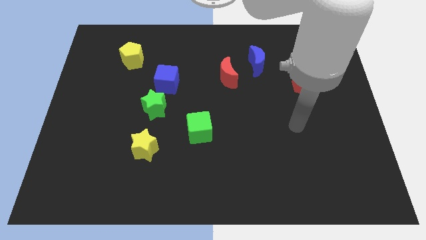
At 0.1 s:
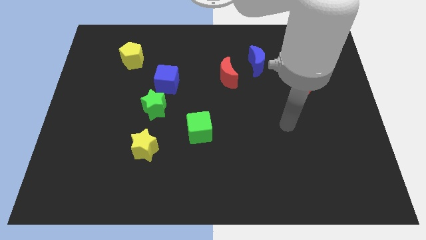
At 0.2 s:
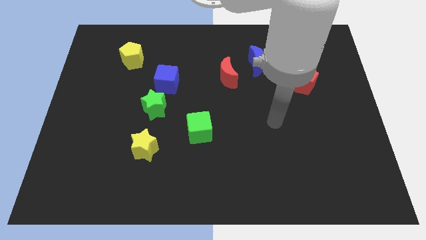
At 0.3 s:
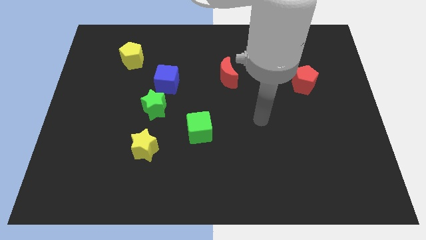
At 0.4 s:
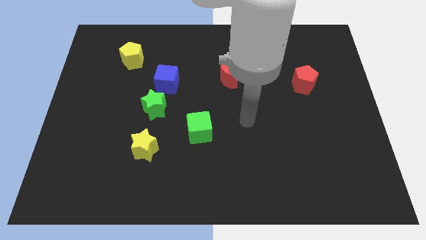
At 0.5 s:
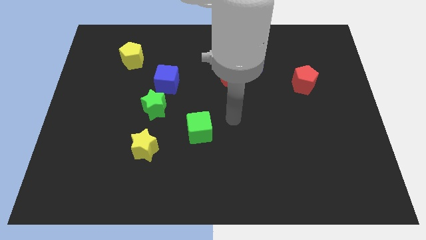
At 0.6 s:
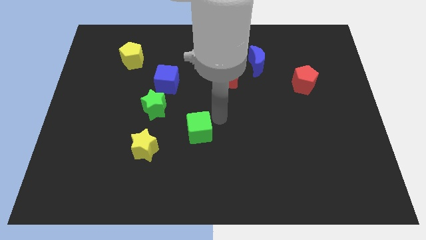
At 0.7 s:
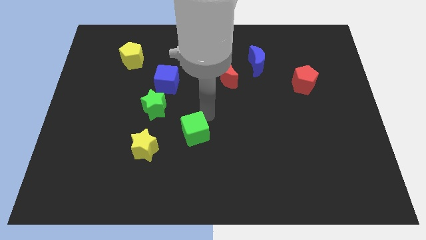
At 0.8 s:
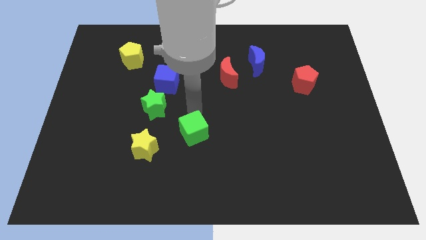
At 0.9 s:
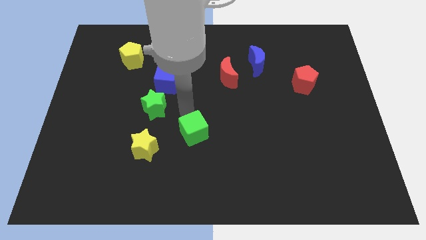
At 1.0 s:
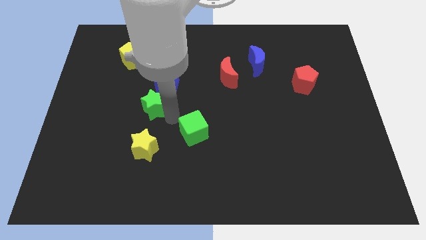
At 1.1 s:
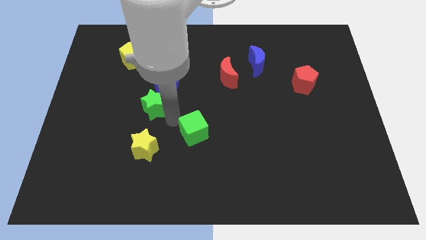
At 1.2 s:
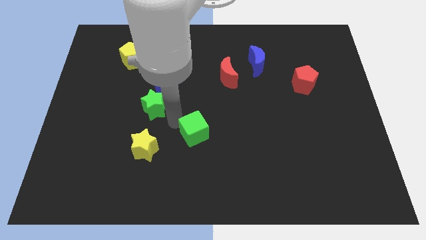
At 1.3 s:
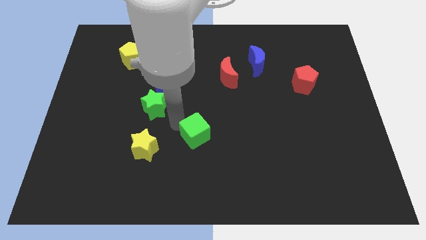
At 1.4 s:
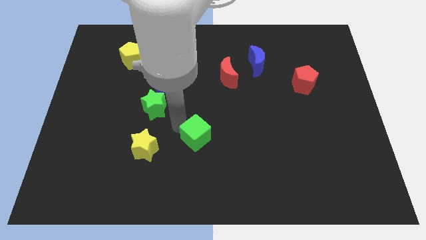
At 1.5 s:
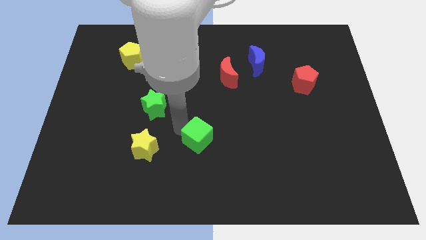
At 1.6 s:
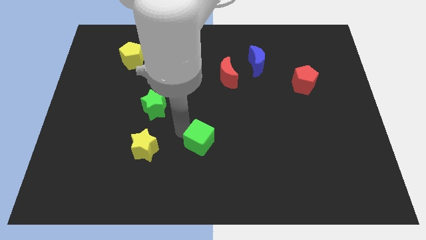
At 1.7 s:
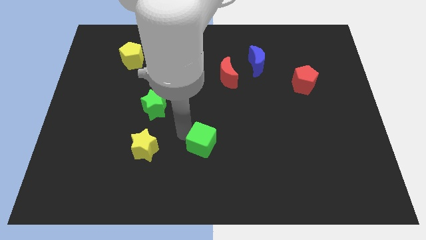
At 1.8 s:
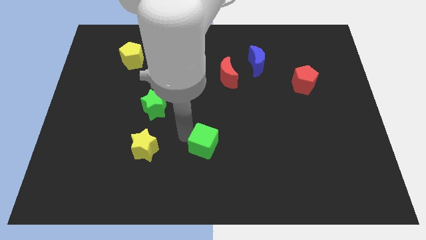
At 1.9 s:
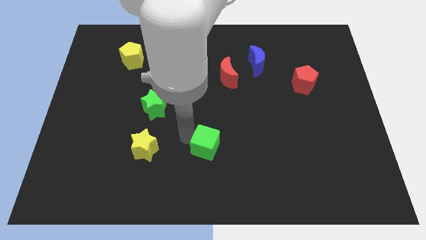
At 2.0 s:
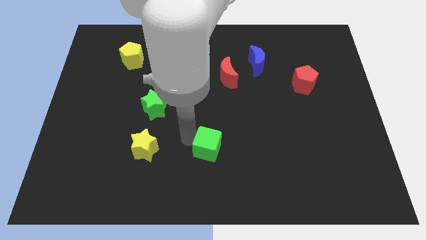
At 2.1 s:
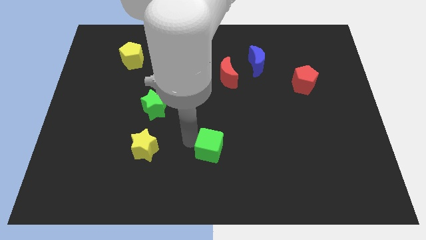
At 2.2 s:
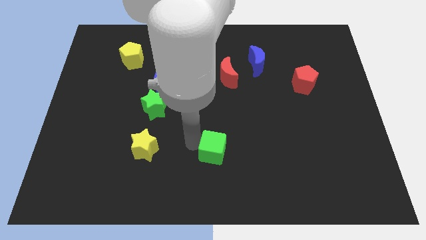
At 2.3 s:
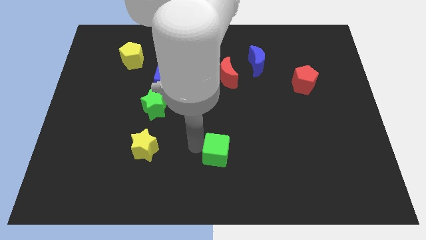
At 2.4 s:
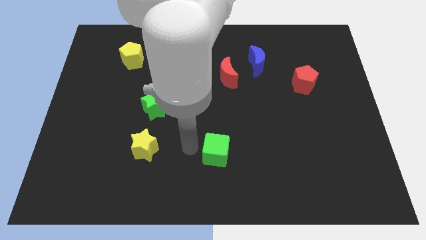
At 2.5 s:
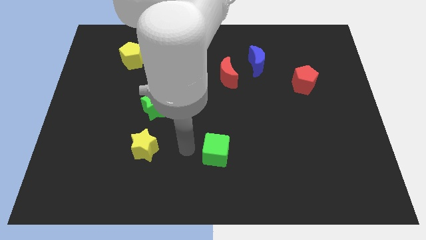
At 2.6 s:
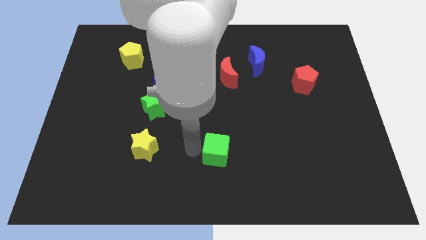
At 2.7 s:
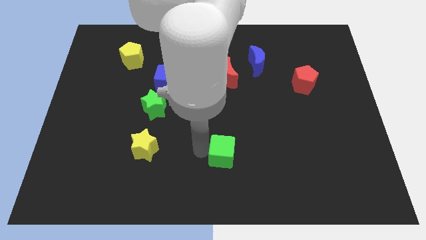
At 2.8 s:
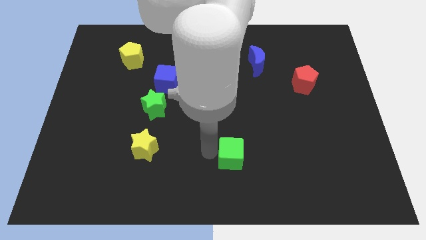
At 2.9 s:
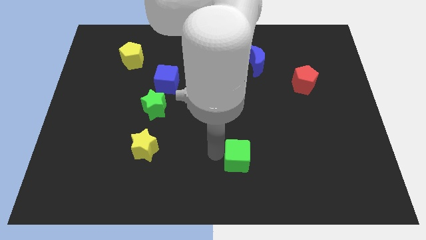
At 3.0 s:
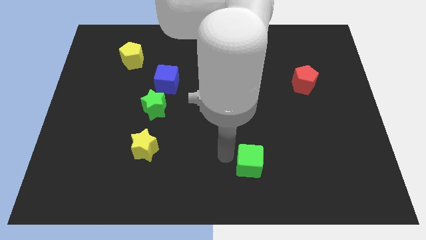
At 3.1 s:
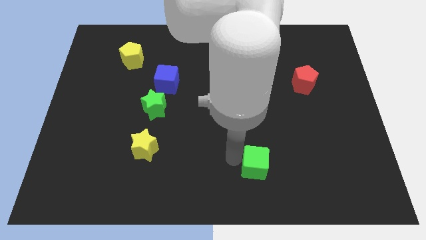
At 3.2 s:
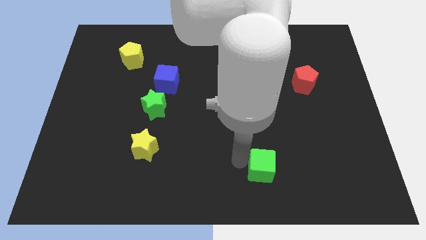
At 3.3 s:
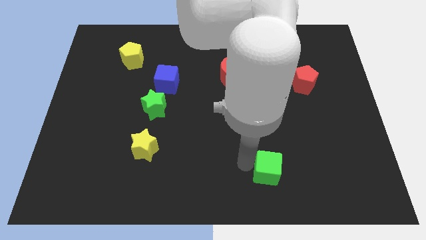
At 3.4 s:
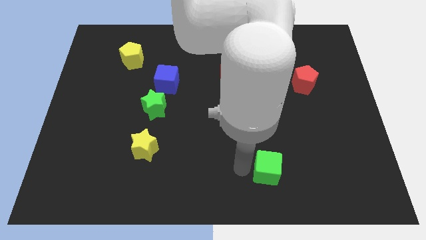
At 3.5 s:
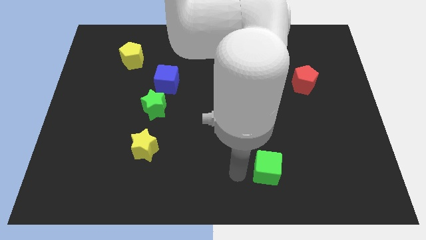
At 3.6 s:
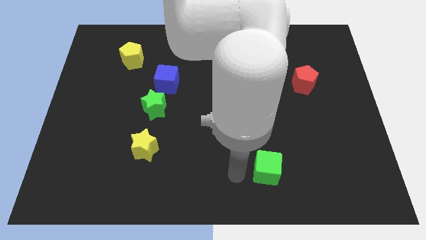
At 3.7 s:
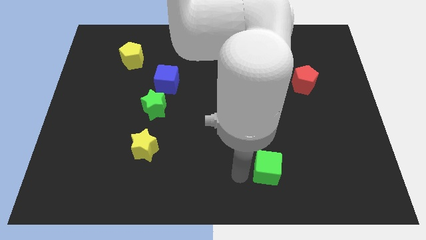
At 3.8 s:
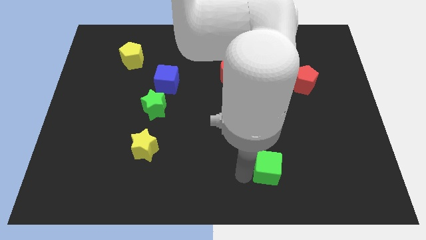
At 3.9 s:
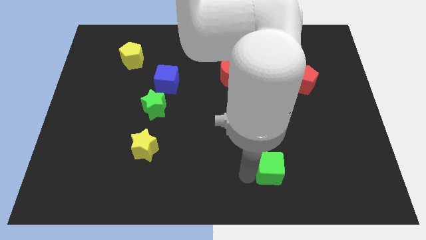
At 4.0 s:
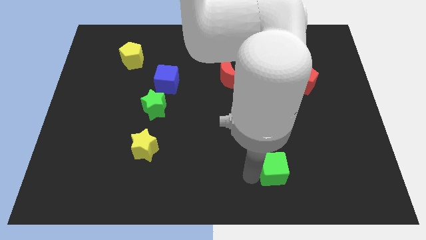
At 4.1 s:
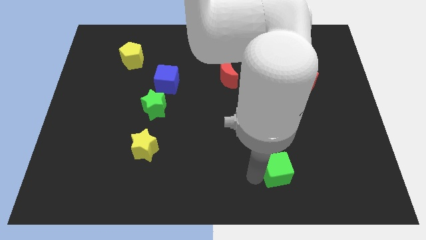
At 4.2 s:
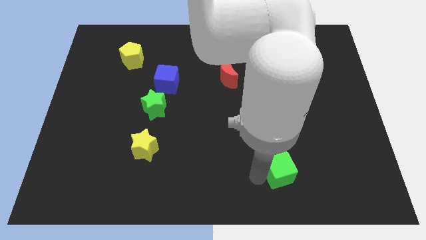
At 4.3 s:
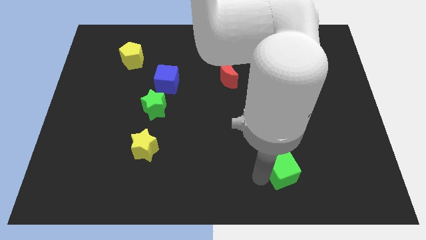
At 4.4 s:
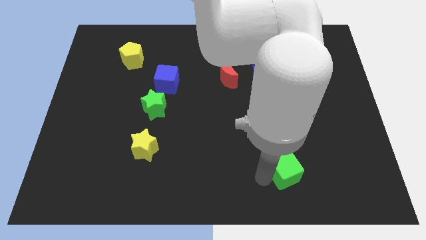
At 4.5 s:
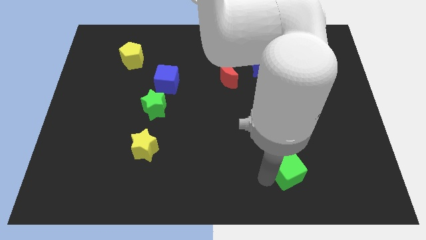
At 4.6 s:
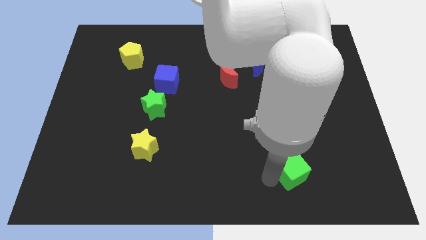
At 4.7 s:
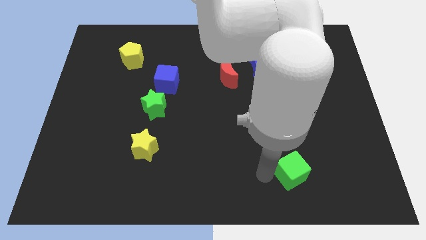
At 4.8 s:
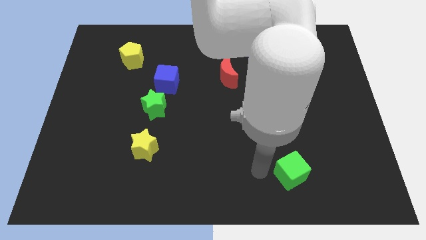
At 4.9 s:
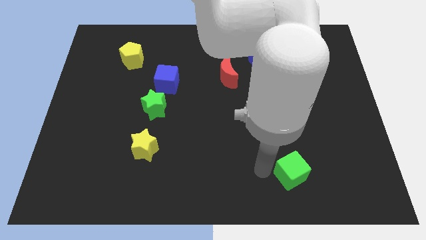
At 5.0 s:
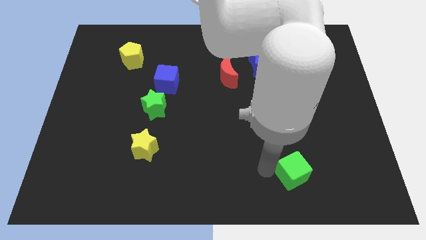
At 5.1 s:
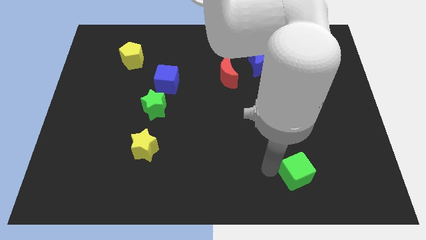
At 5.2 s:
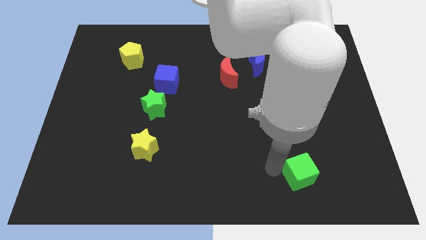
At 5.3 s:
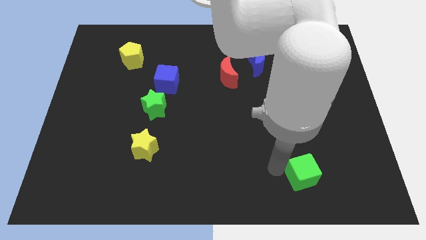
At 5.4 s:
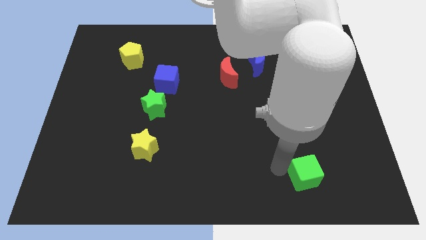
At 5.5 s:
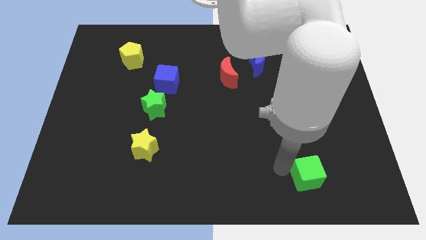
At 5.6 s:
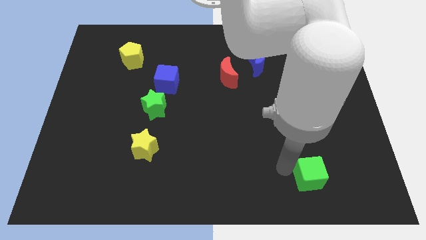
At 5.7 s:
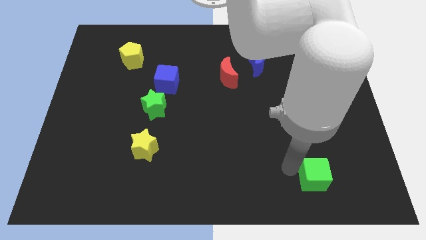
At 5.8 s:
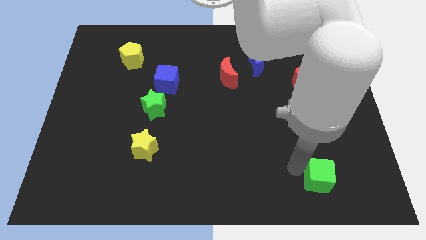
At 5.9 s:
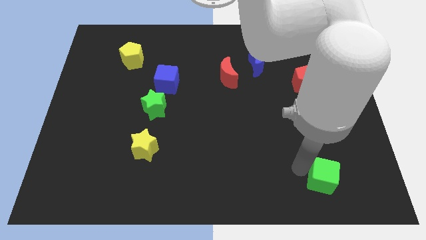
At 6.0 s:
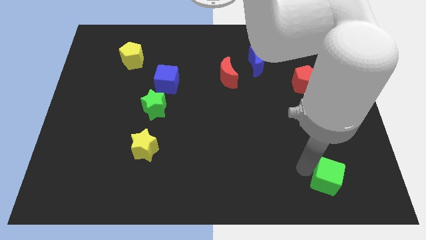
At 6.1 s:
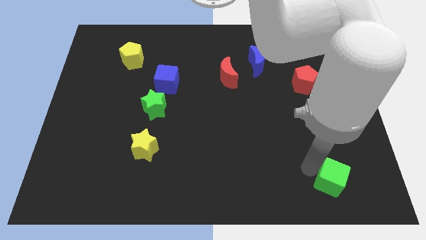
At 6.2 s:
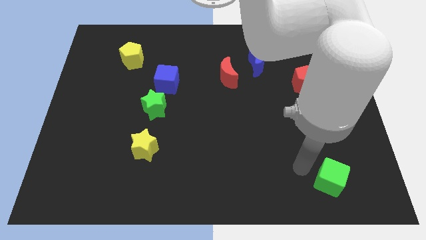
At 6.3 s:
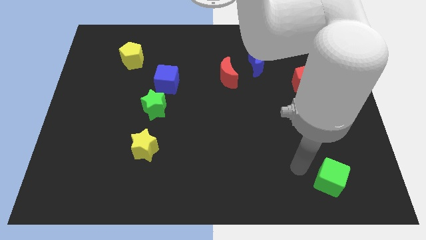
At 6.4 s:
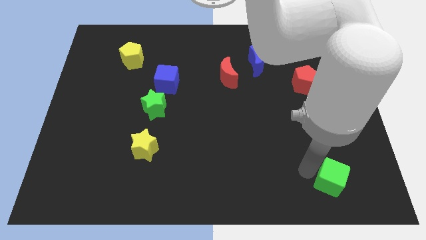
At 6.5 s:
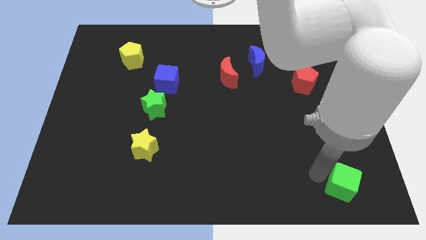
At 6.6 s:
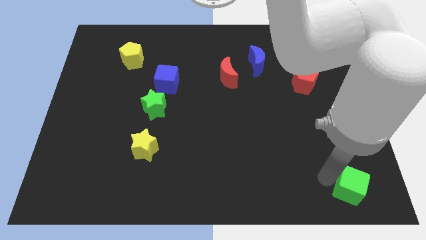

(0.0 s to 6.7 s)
push the green cube to the lower right corner

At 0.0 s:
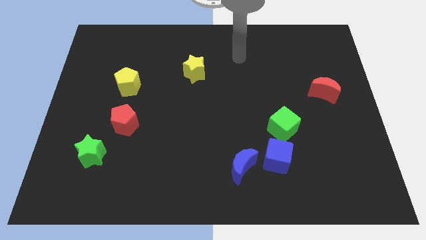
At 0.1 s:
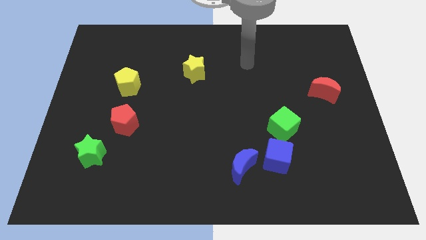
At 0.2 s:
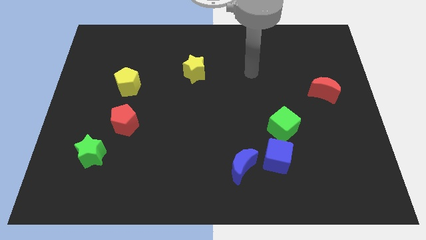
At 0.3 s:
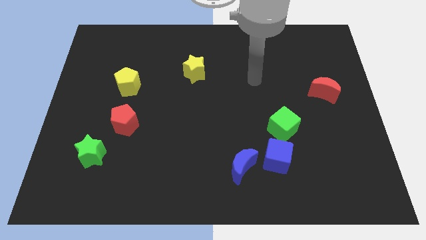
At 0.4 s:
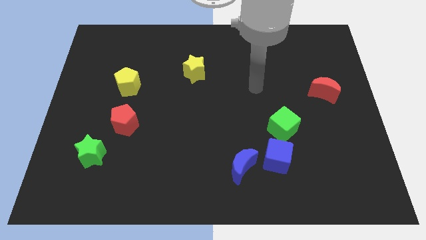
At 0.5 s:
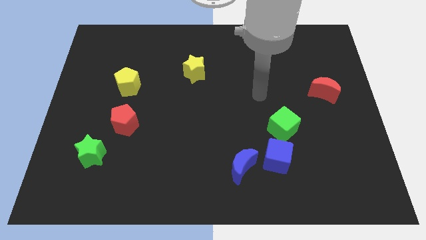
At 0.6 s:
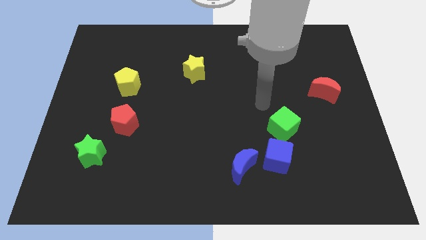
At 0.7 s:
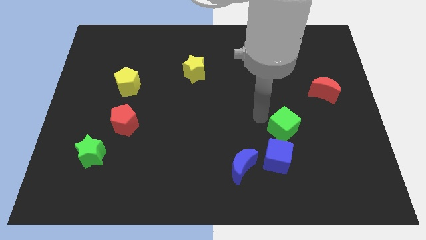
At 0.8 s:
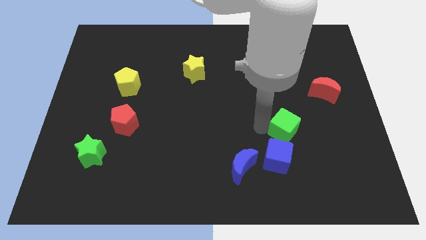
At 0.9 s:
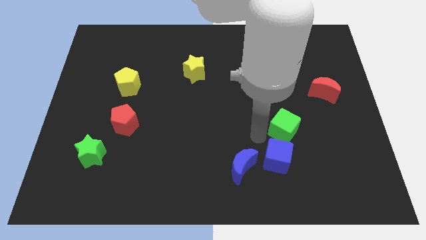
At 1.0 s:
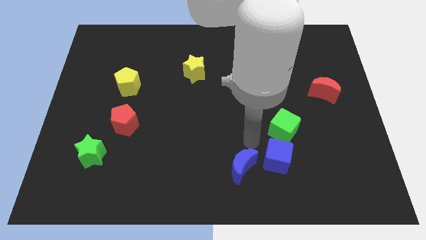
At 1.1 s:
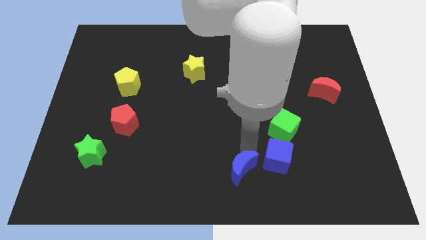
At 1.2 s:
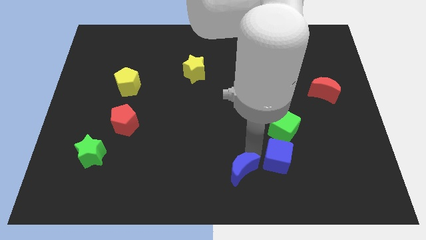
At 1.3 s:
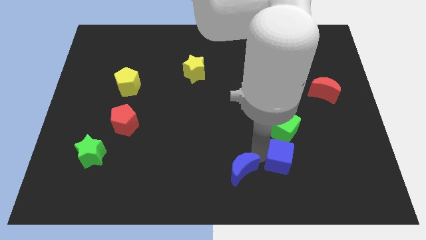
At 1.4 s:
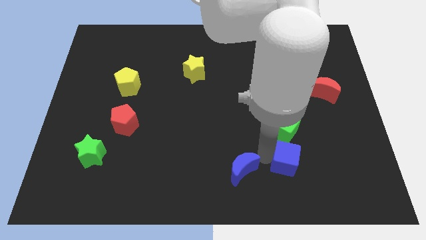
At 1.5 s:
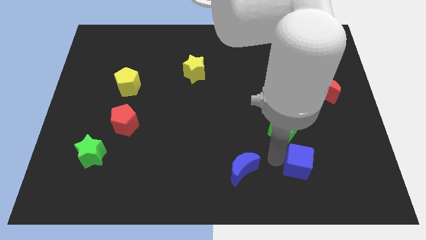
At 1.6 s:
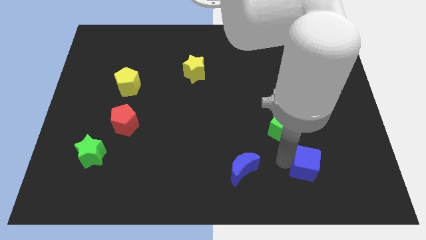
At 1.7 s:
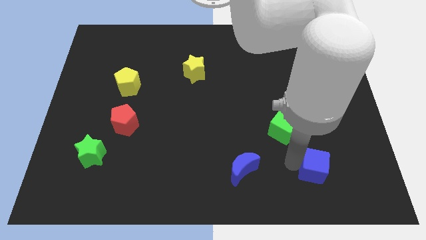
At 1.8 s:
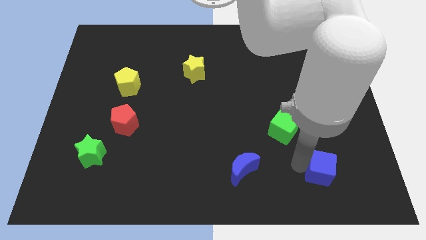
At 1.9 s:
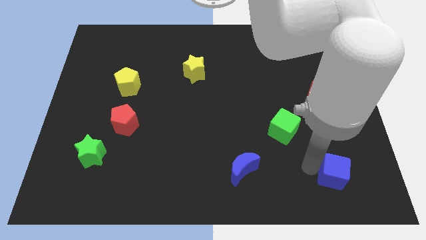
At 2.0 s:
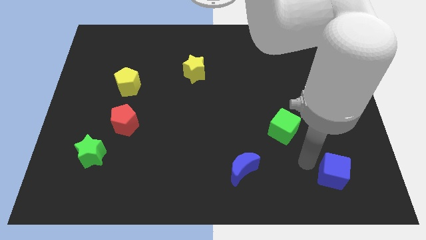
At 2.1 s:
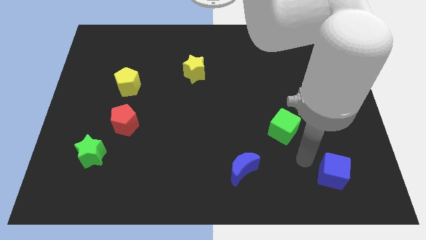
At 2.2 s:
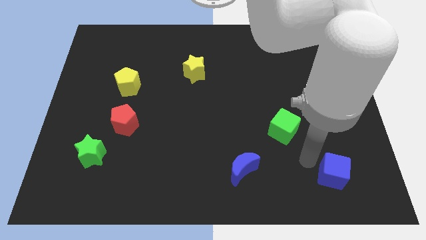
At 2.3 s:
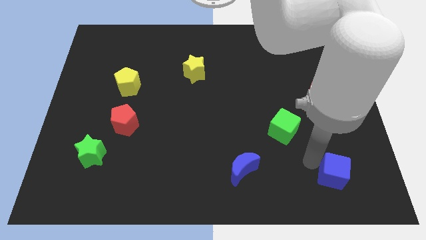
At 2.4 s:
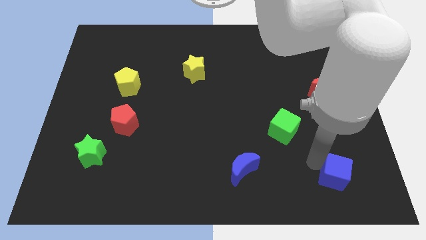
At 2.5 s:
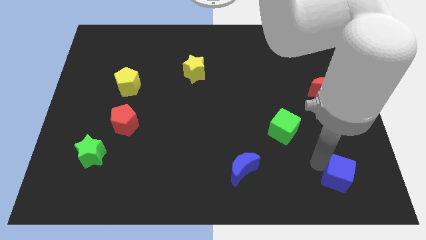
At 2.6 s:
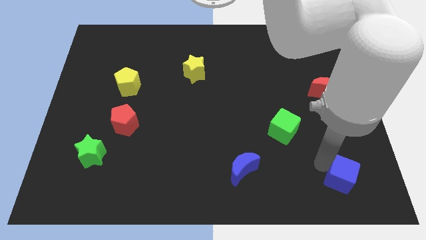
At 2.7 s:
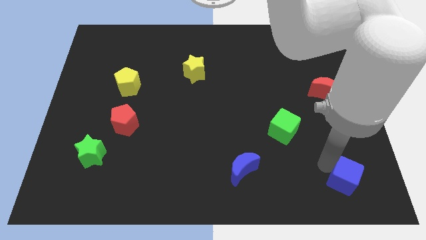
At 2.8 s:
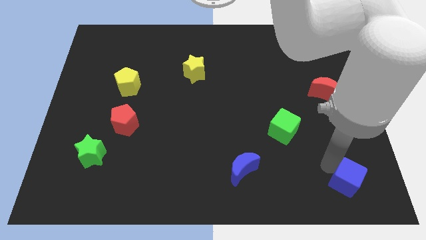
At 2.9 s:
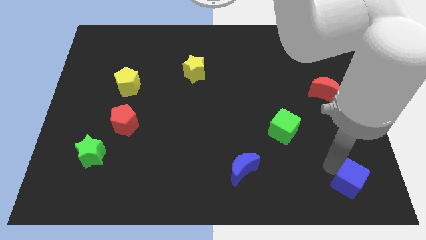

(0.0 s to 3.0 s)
move the blue cube to the bottom right
